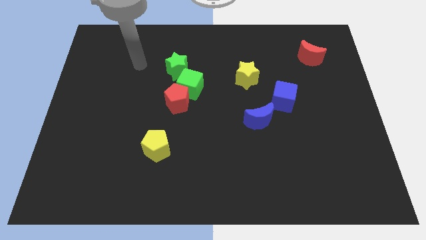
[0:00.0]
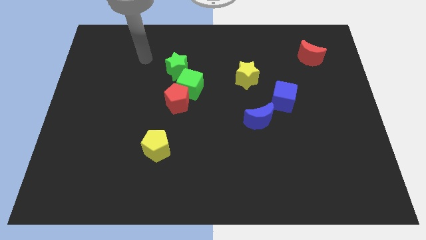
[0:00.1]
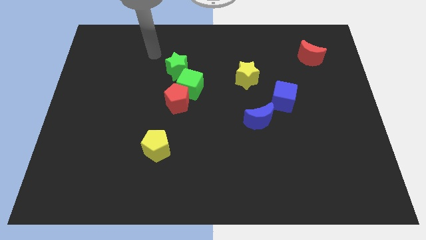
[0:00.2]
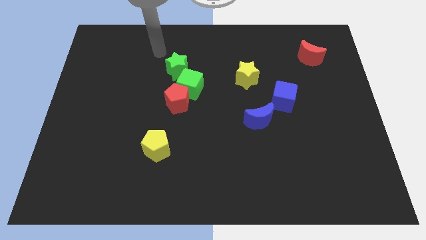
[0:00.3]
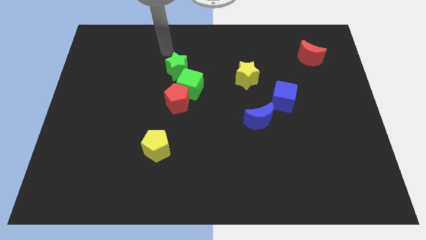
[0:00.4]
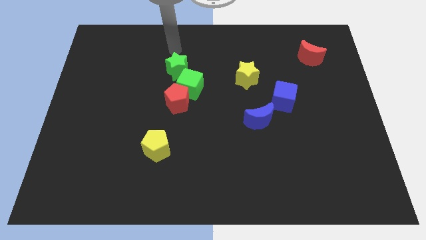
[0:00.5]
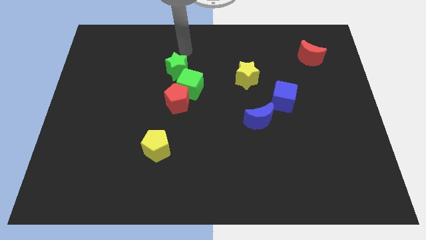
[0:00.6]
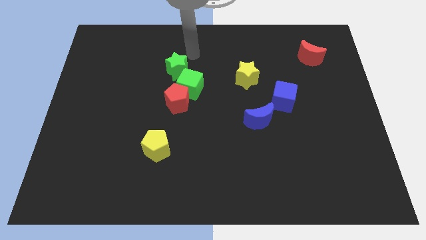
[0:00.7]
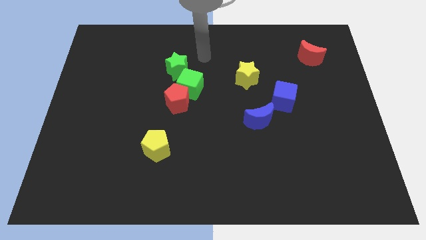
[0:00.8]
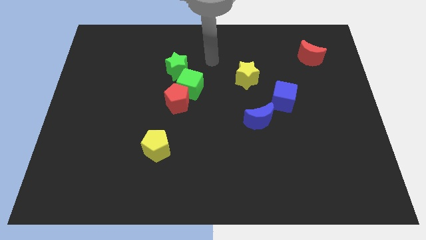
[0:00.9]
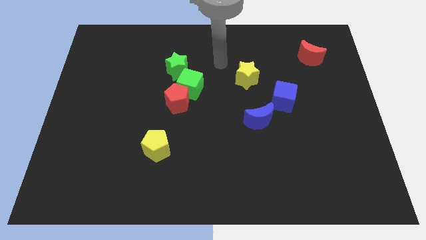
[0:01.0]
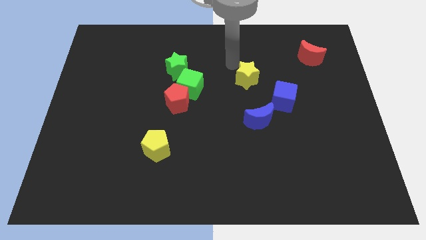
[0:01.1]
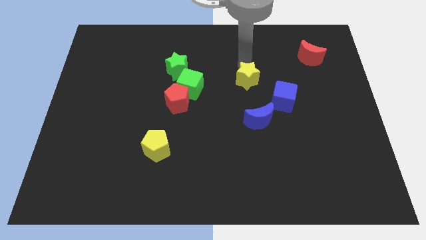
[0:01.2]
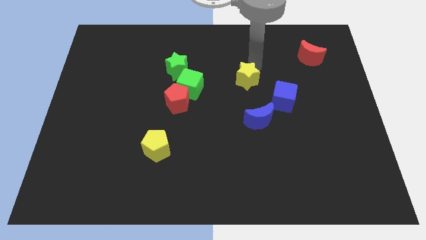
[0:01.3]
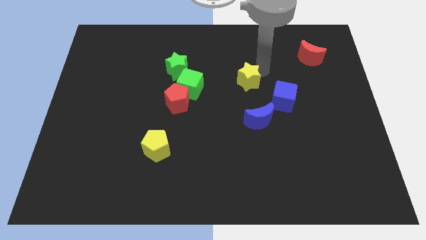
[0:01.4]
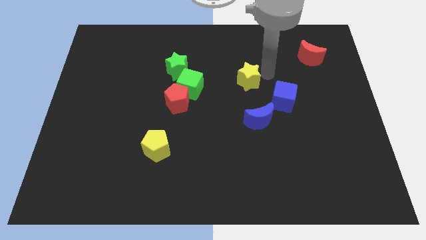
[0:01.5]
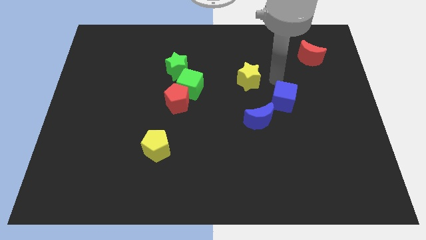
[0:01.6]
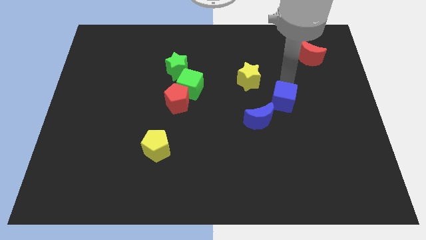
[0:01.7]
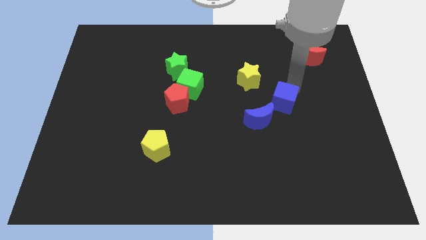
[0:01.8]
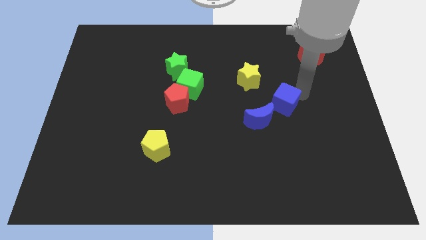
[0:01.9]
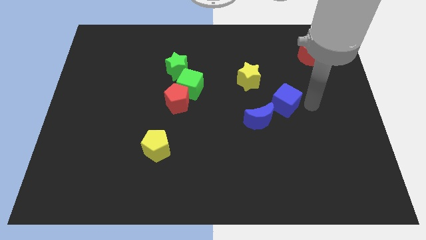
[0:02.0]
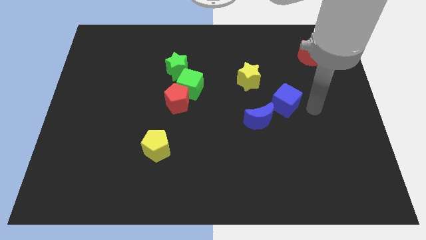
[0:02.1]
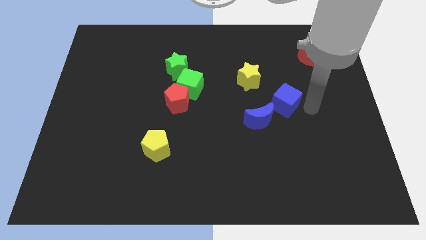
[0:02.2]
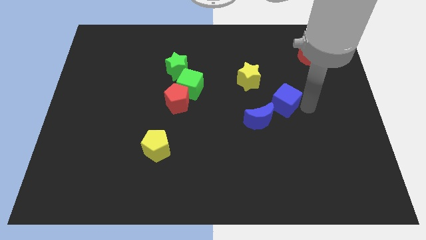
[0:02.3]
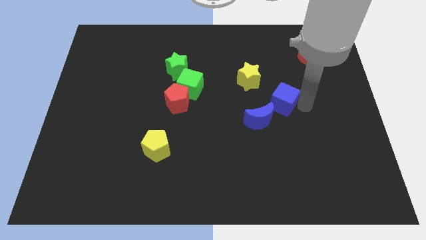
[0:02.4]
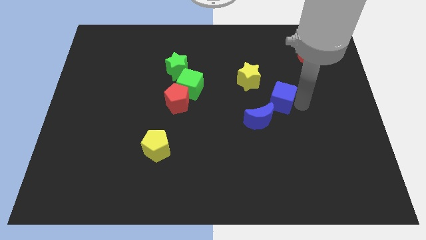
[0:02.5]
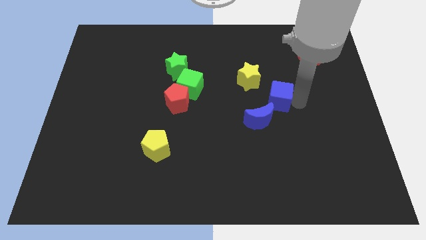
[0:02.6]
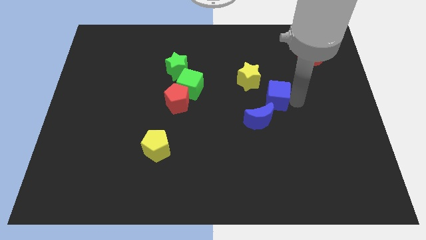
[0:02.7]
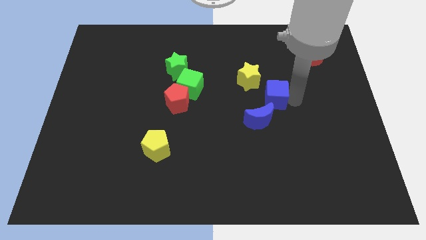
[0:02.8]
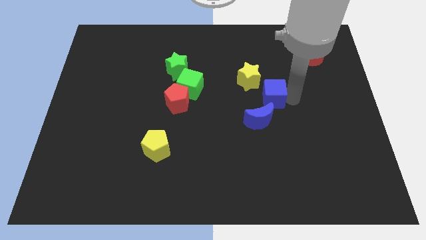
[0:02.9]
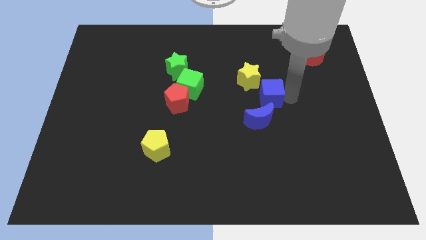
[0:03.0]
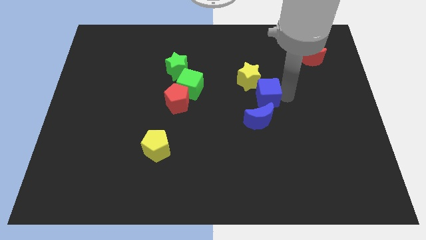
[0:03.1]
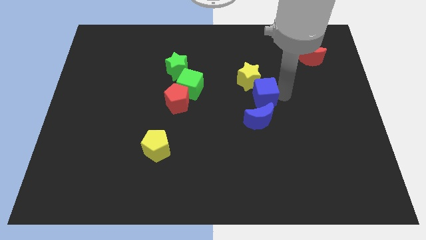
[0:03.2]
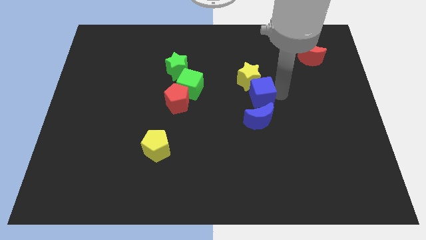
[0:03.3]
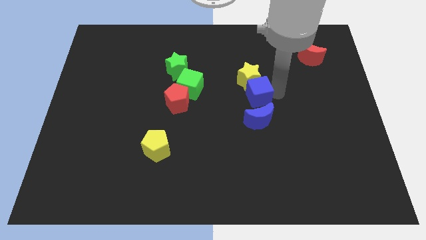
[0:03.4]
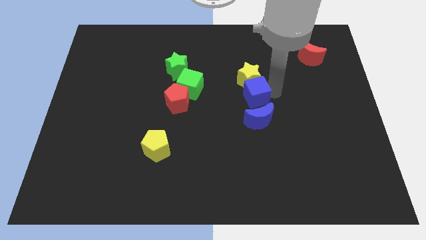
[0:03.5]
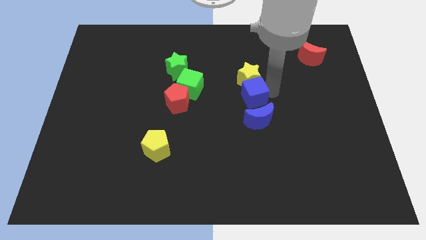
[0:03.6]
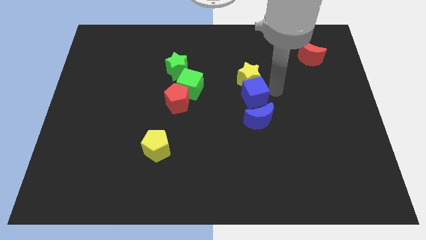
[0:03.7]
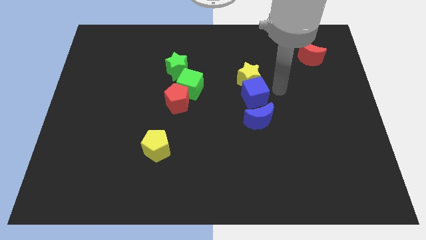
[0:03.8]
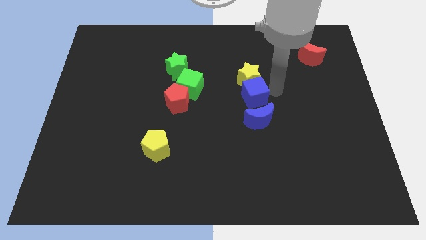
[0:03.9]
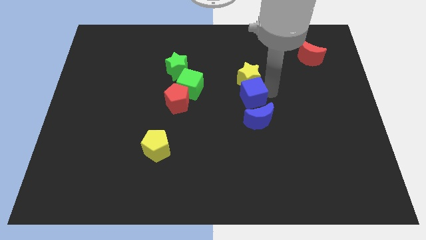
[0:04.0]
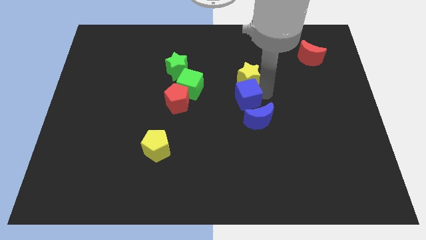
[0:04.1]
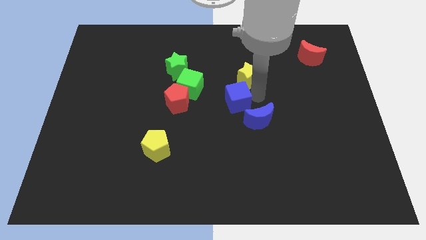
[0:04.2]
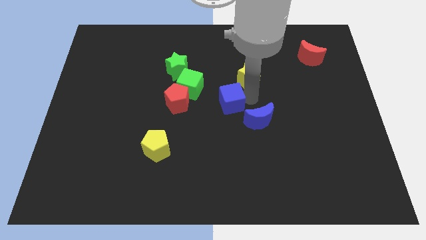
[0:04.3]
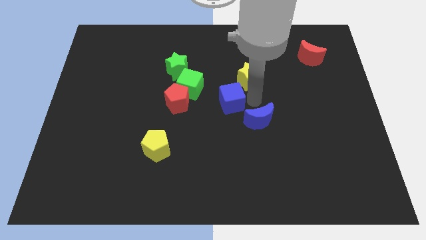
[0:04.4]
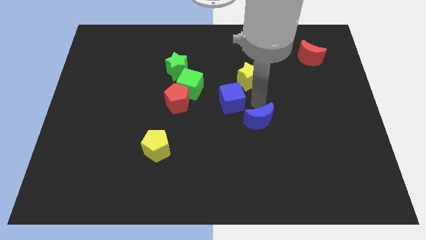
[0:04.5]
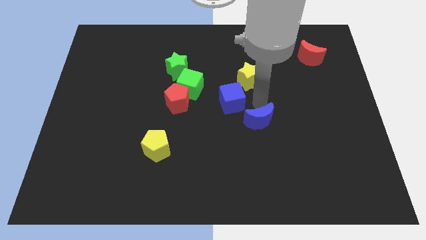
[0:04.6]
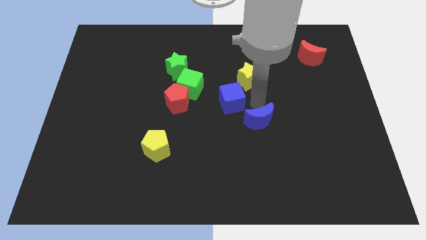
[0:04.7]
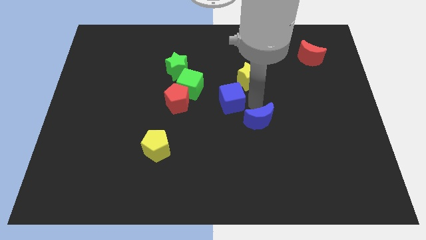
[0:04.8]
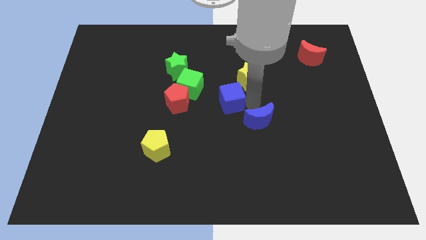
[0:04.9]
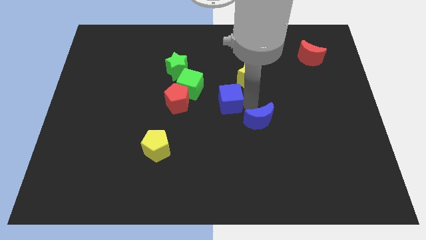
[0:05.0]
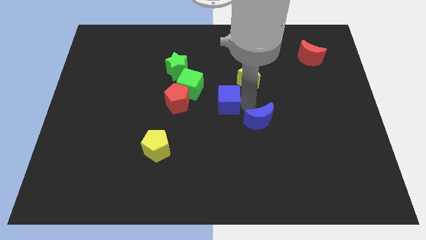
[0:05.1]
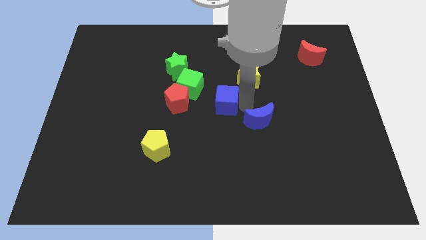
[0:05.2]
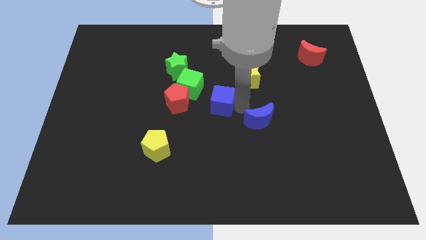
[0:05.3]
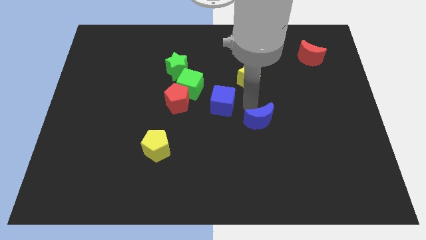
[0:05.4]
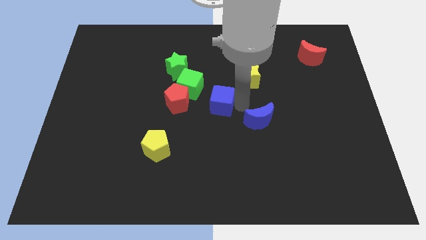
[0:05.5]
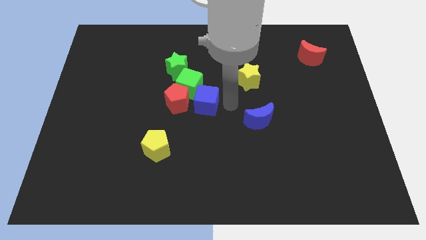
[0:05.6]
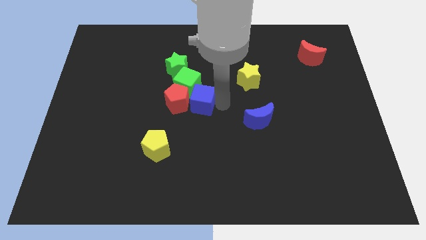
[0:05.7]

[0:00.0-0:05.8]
slide the blue cube towards the red pentagon

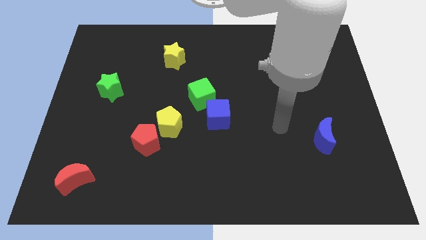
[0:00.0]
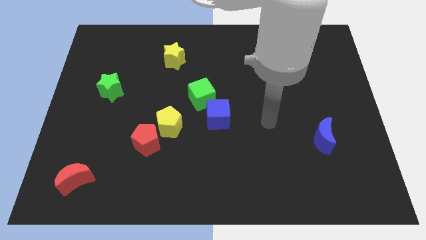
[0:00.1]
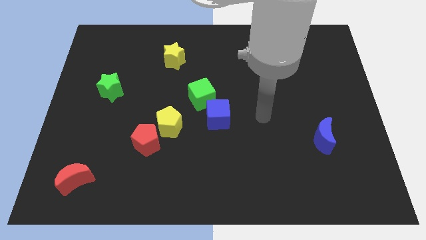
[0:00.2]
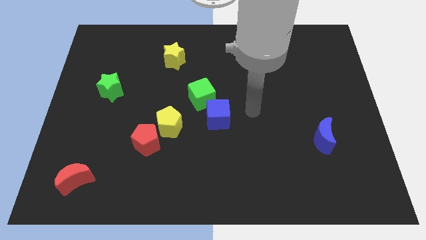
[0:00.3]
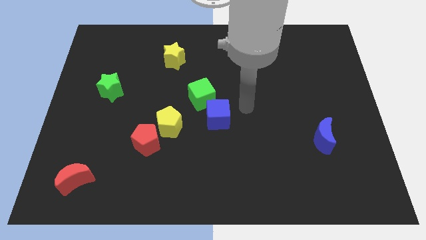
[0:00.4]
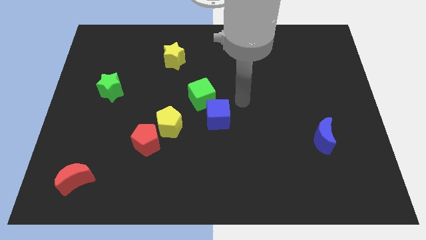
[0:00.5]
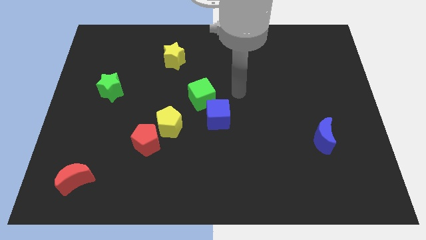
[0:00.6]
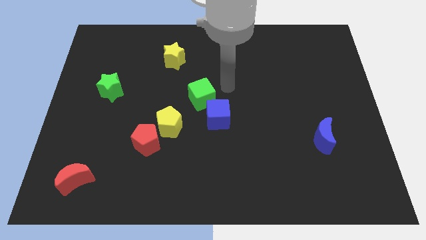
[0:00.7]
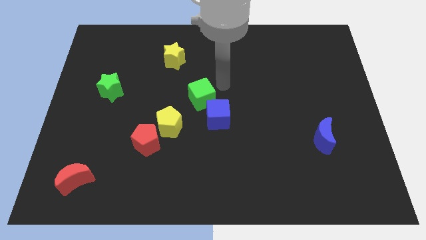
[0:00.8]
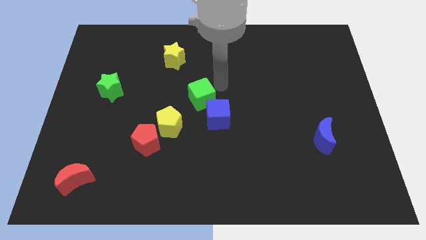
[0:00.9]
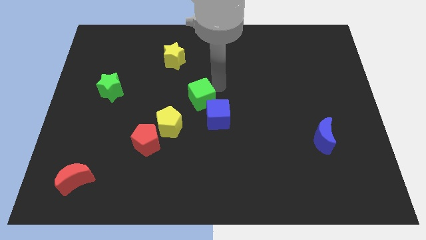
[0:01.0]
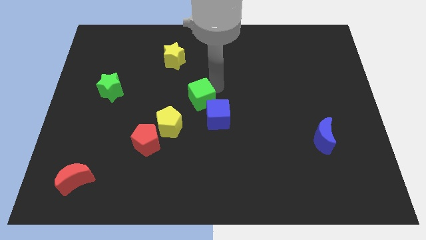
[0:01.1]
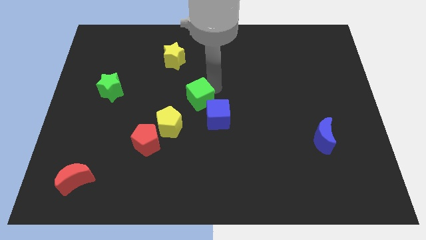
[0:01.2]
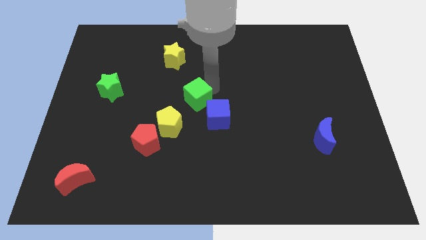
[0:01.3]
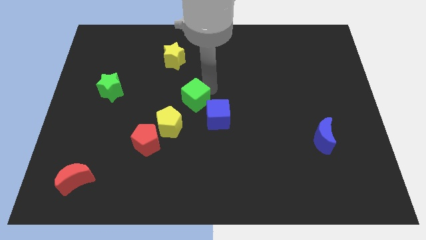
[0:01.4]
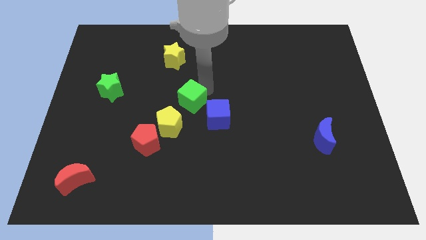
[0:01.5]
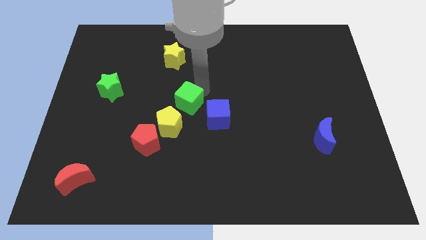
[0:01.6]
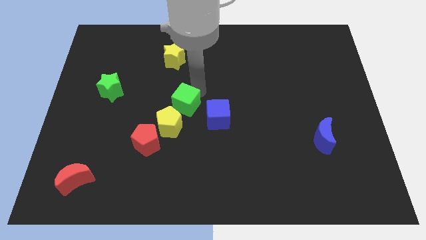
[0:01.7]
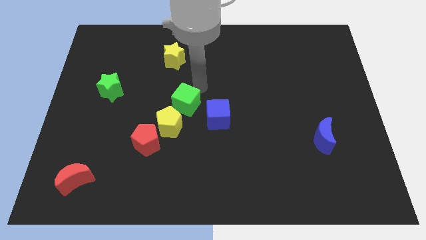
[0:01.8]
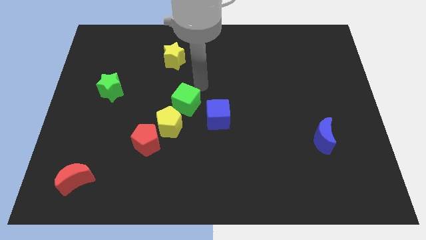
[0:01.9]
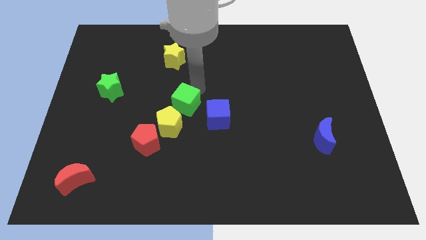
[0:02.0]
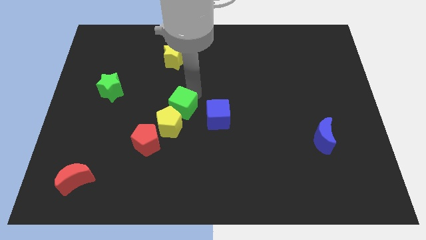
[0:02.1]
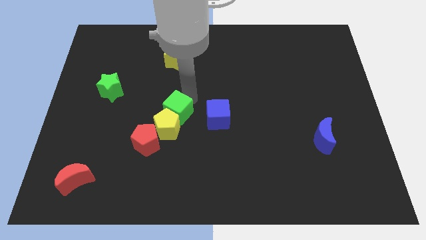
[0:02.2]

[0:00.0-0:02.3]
slide the green cube next to the yellow pentagon
